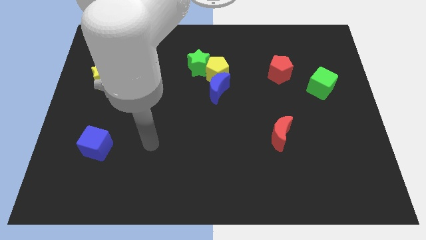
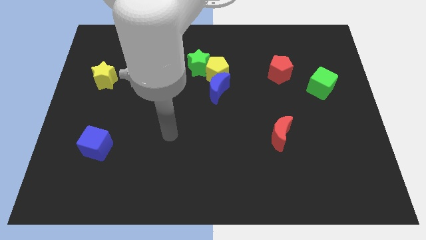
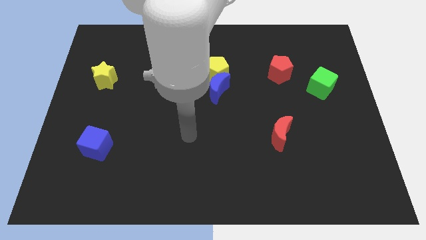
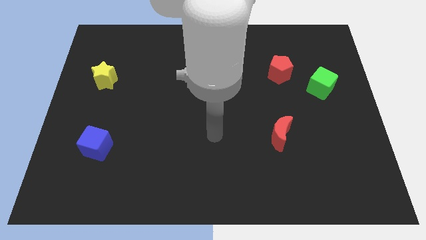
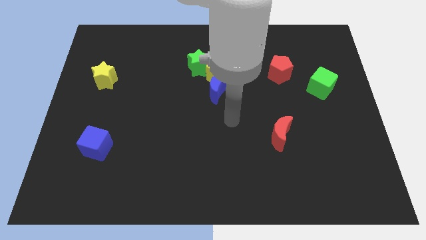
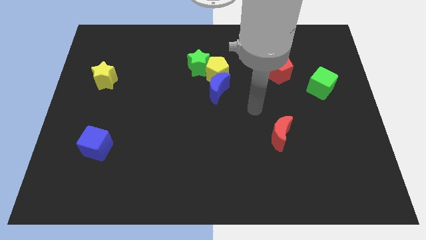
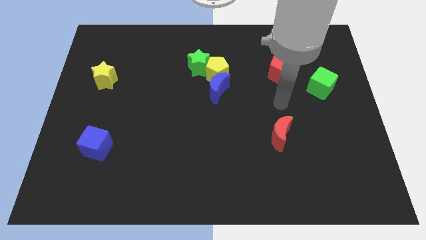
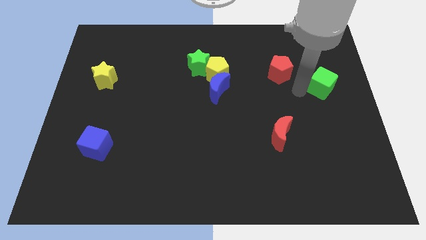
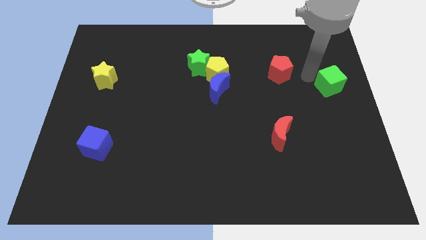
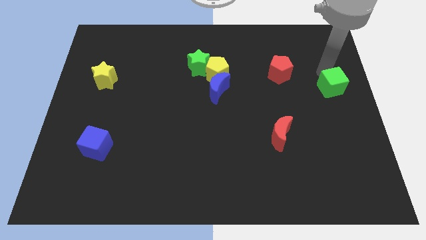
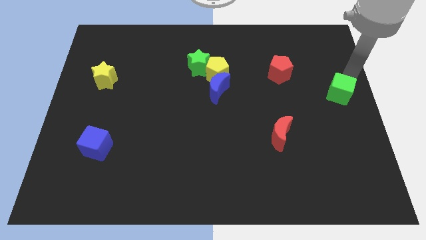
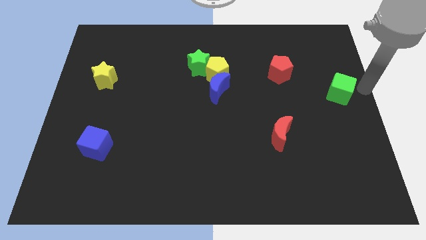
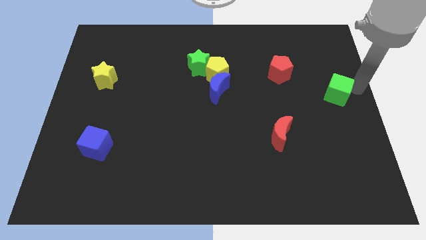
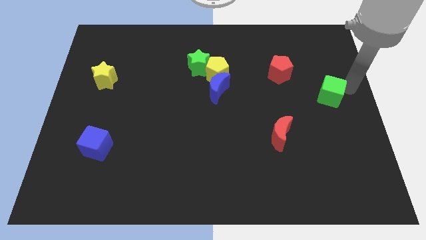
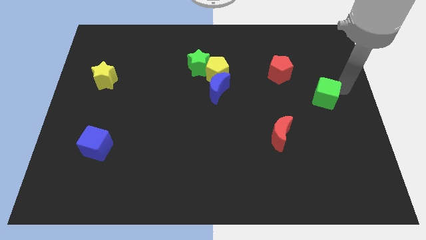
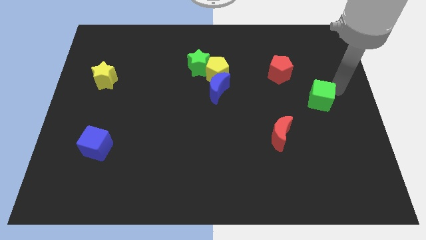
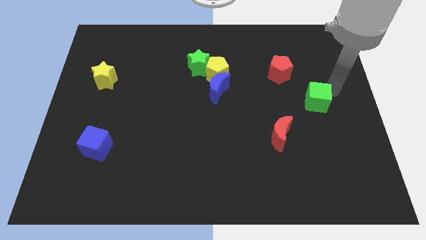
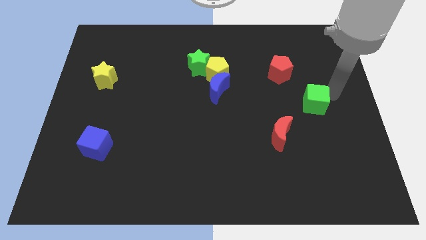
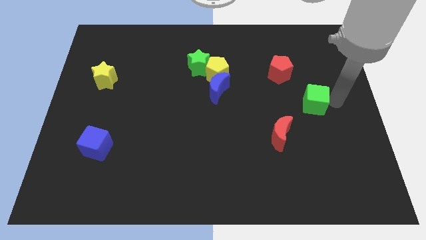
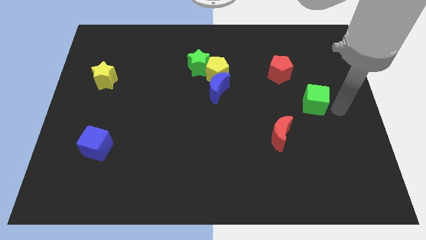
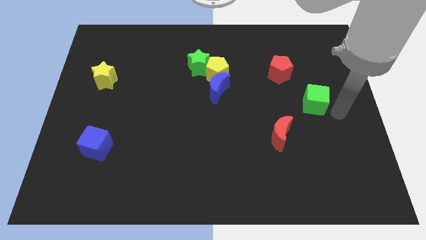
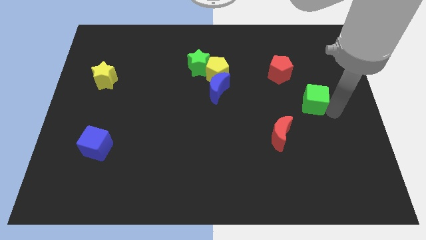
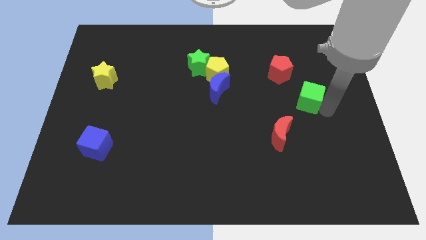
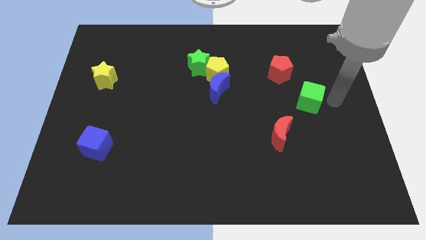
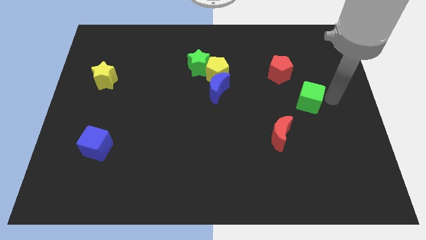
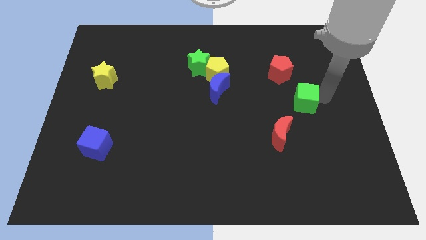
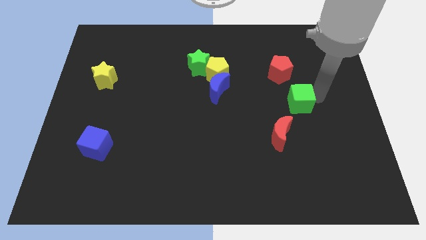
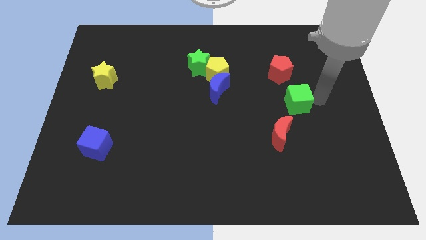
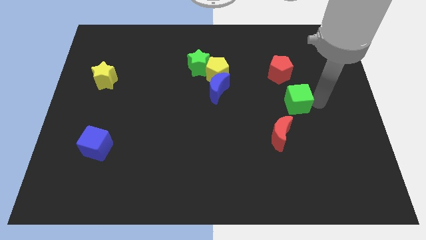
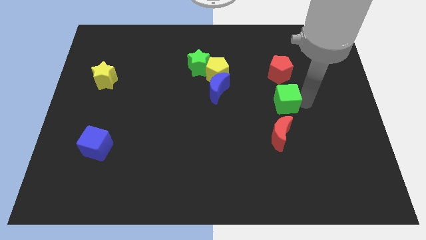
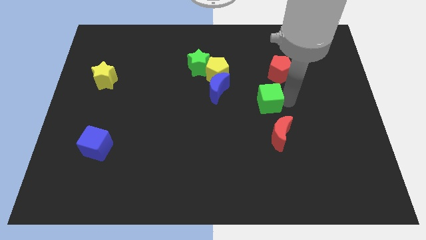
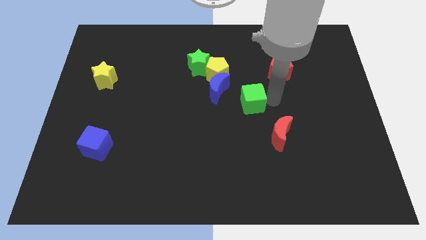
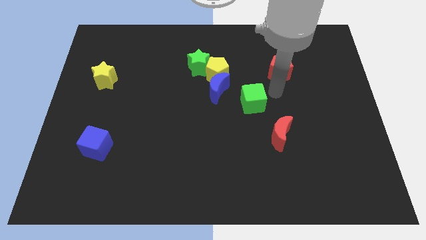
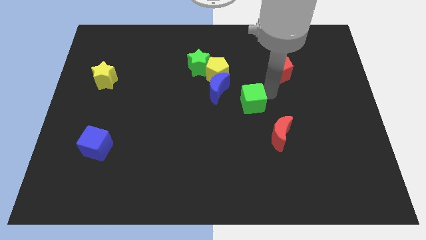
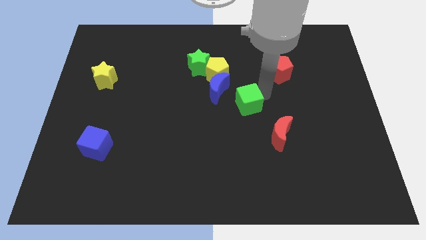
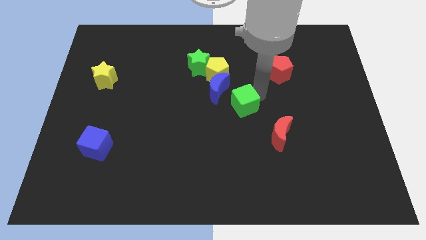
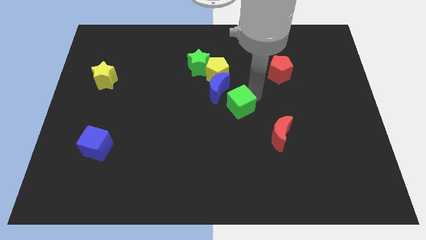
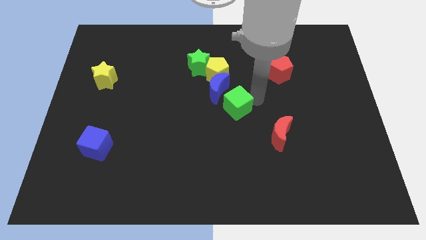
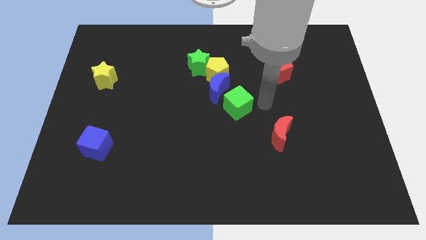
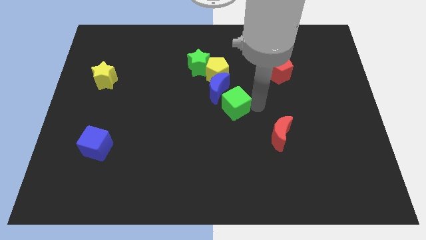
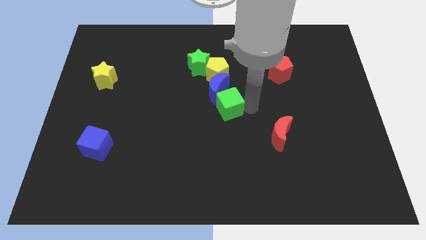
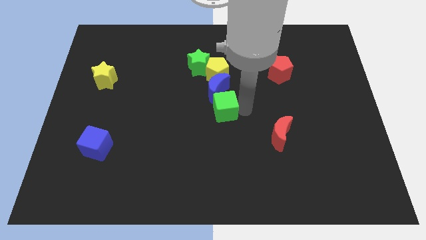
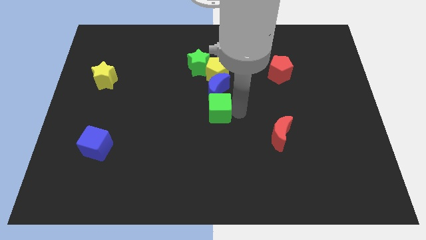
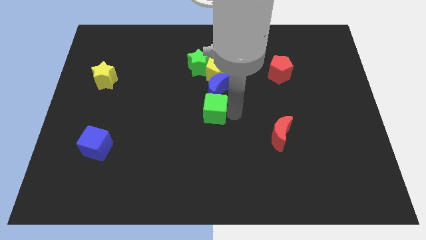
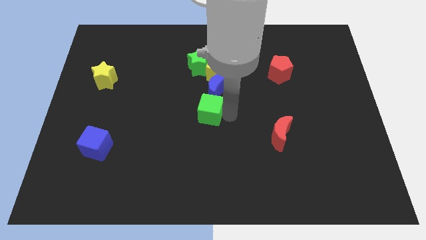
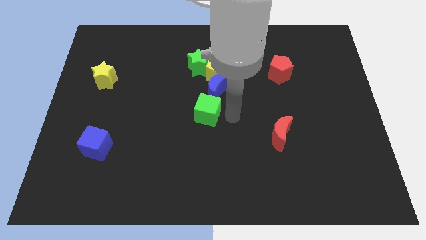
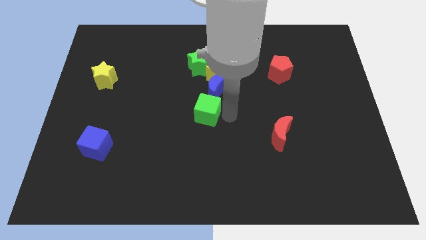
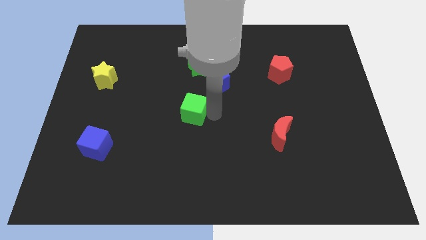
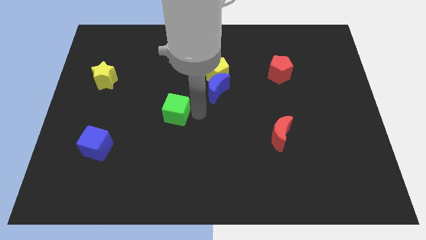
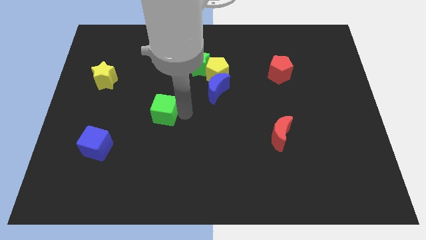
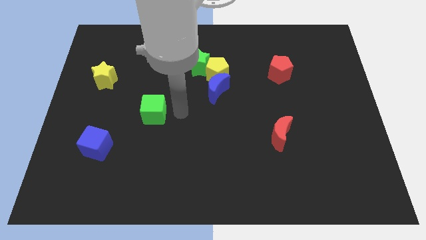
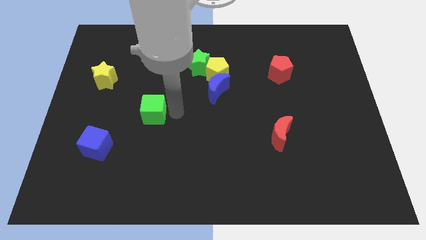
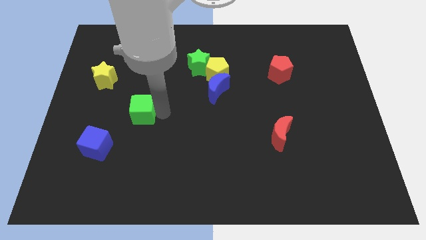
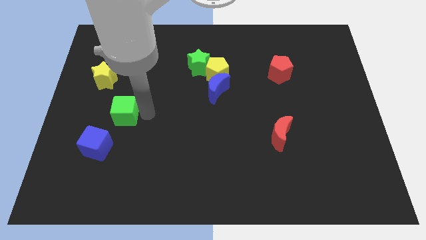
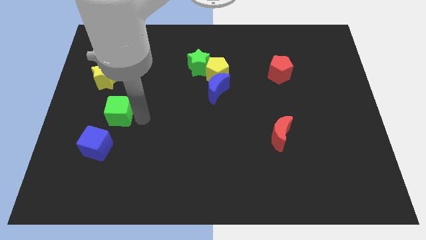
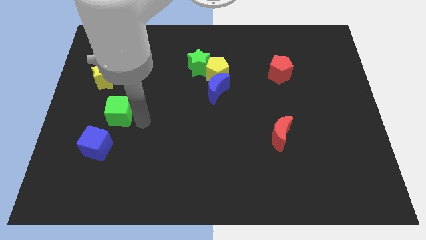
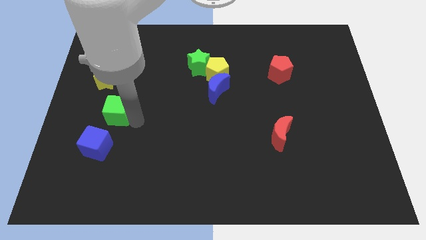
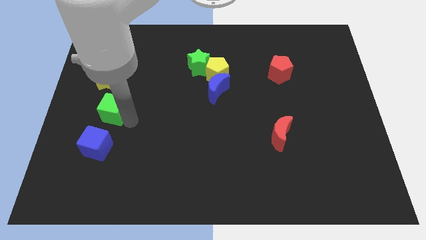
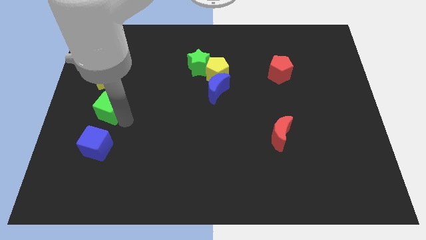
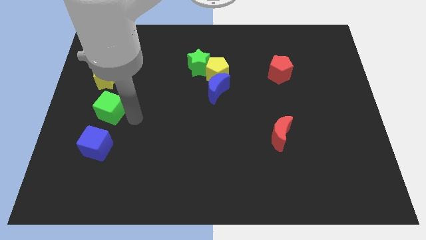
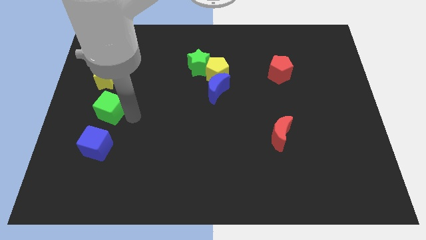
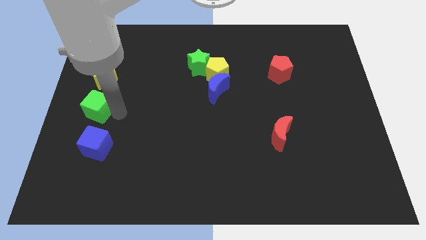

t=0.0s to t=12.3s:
slide the green cube to the center left

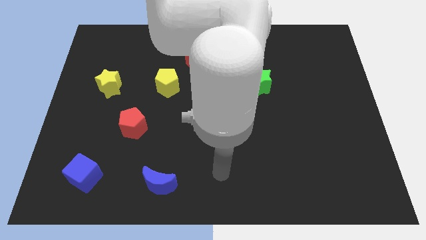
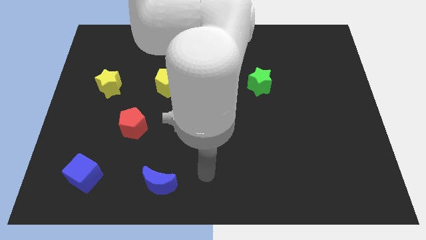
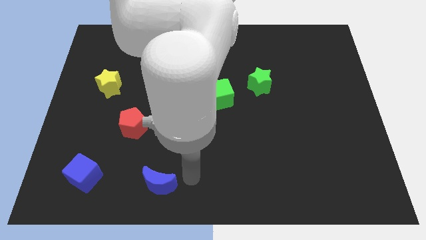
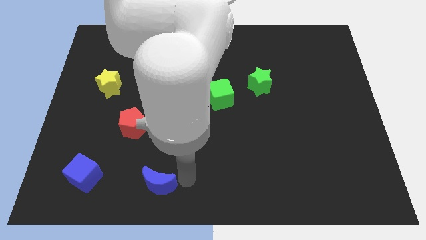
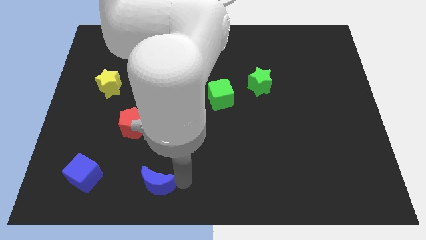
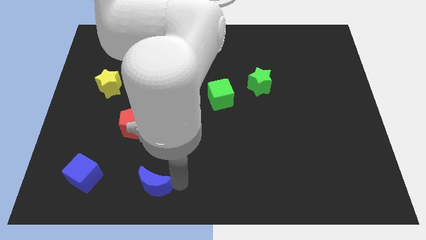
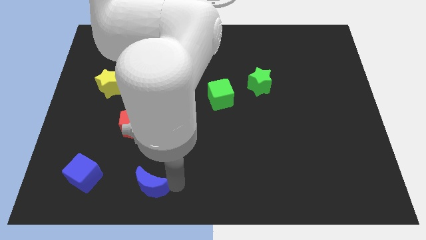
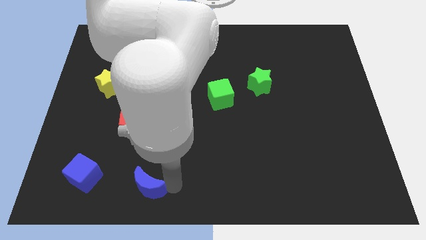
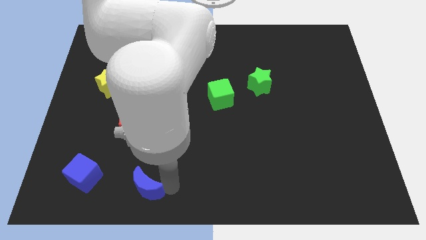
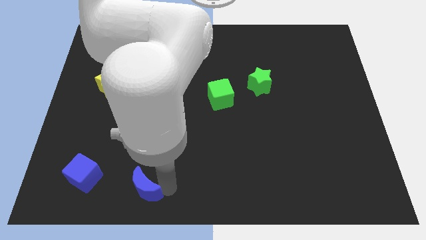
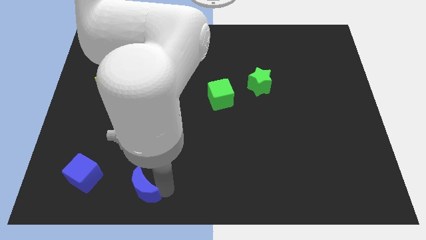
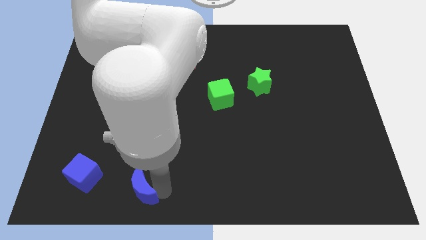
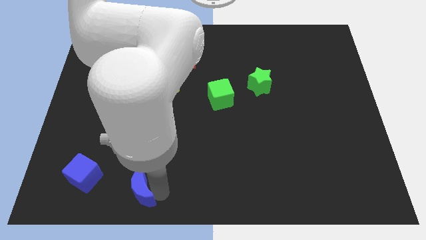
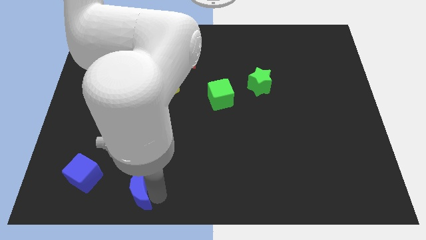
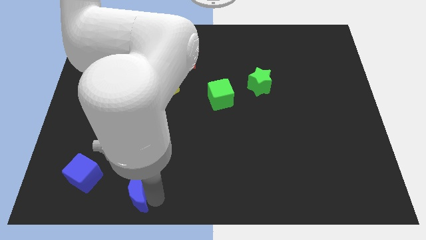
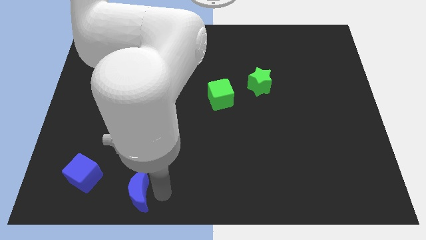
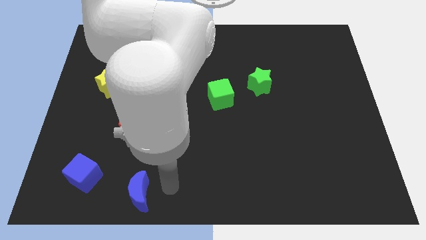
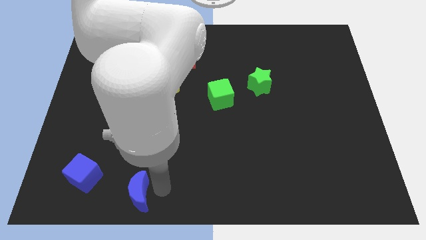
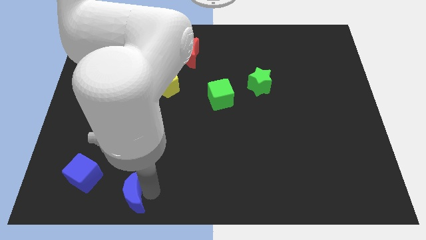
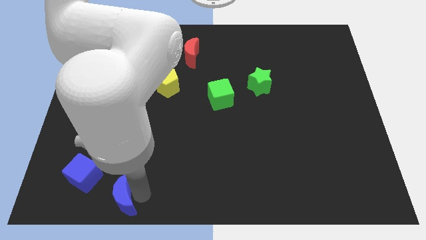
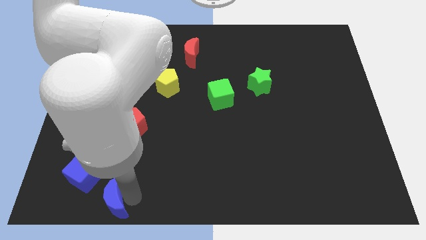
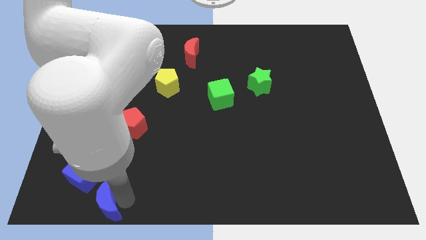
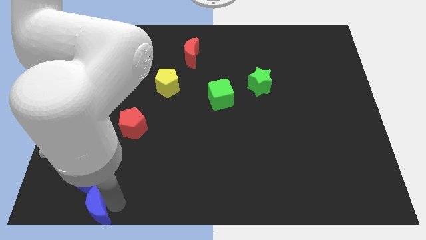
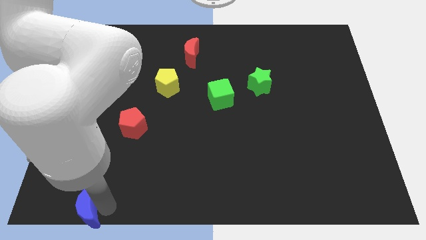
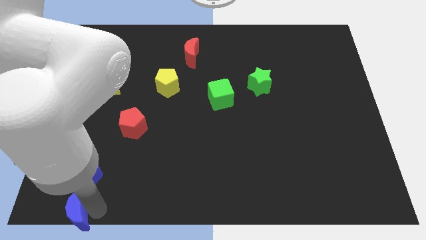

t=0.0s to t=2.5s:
slide the blue moon to the bottom left of the board

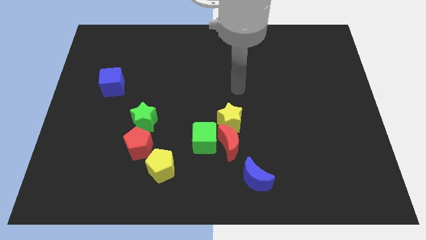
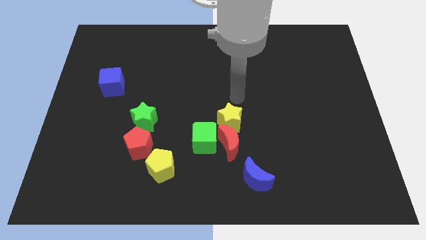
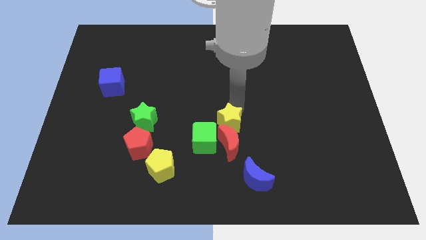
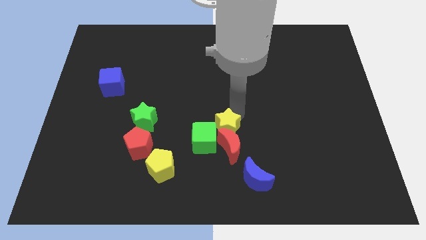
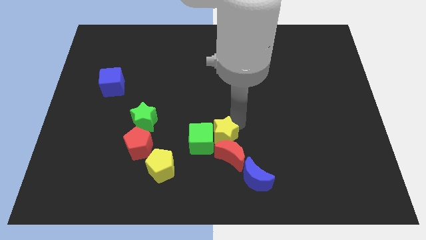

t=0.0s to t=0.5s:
slide the red moon to the bottom
